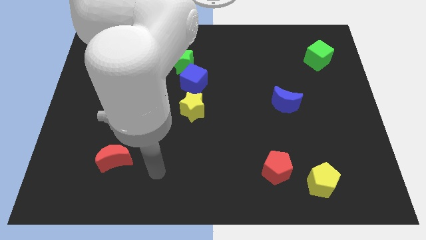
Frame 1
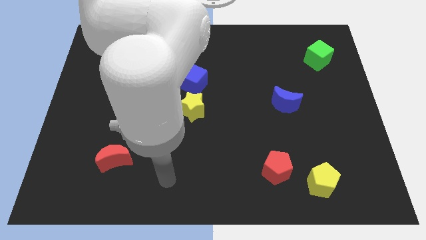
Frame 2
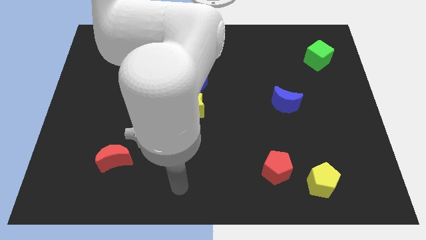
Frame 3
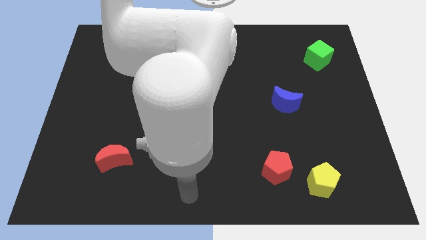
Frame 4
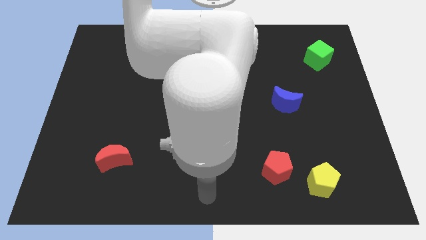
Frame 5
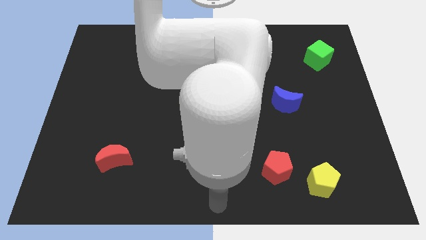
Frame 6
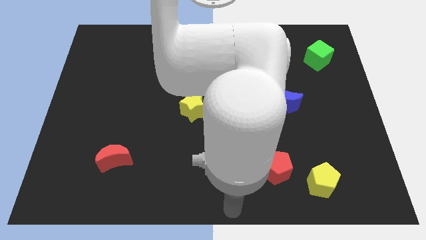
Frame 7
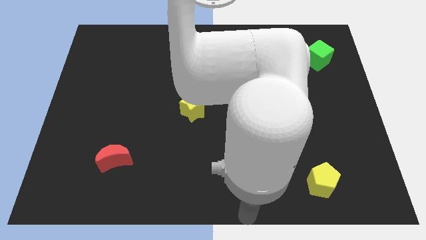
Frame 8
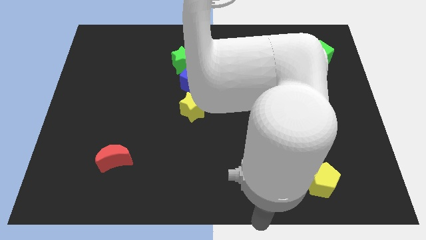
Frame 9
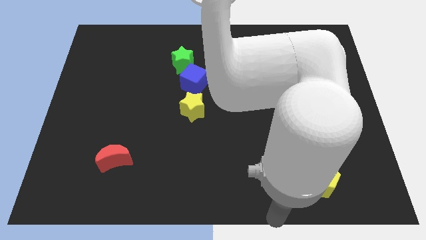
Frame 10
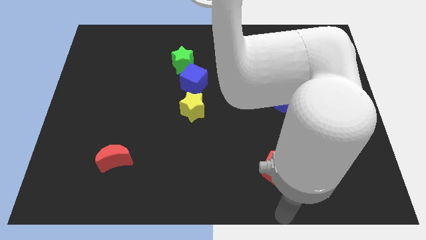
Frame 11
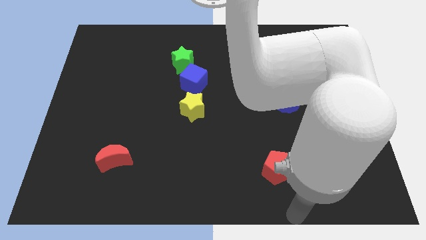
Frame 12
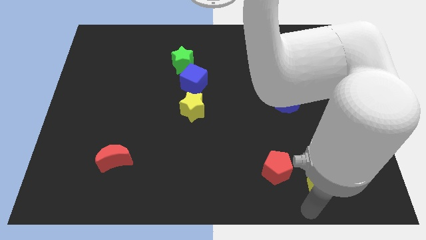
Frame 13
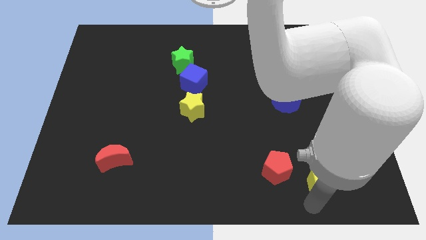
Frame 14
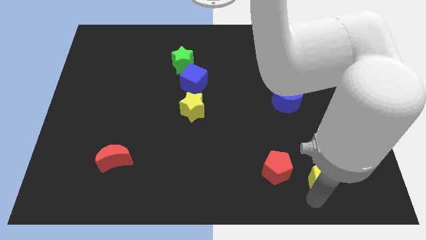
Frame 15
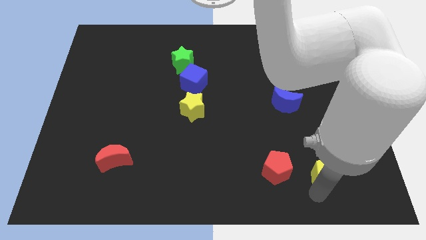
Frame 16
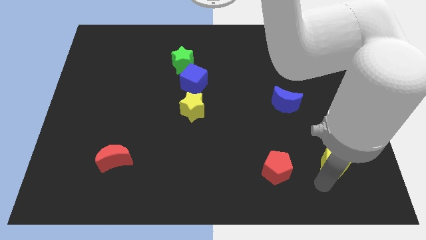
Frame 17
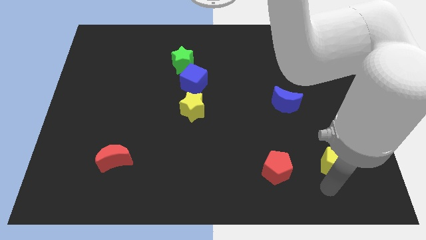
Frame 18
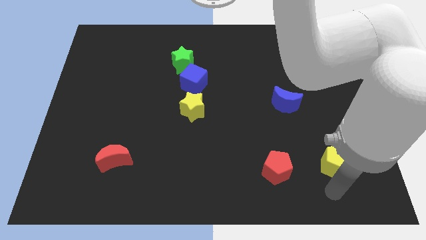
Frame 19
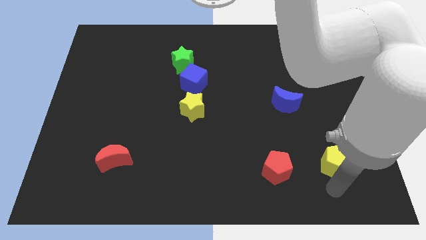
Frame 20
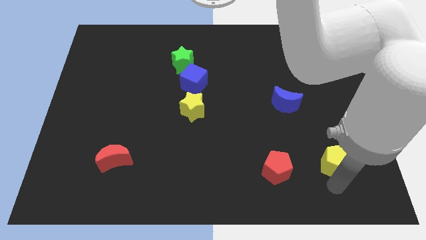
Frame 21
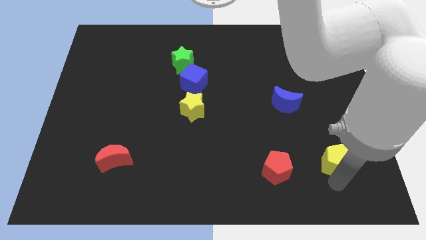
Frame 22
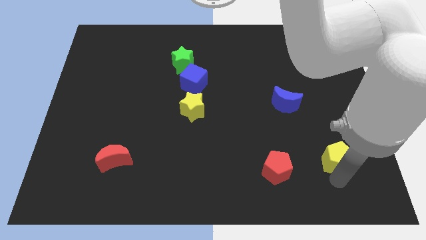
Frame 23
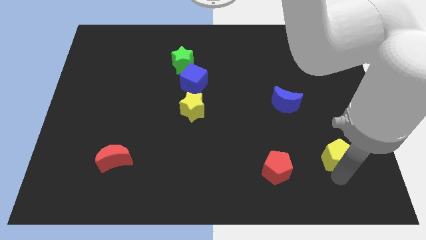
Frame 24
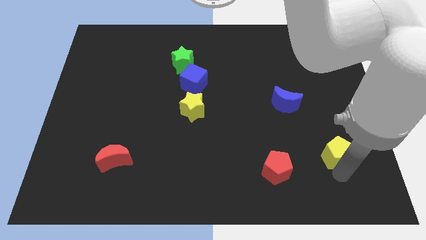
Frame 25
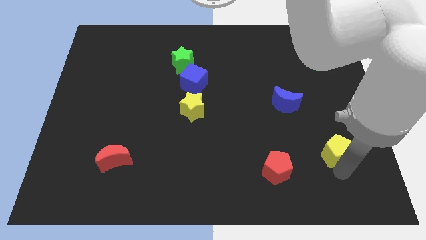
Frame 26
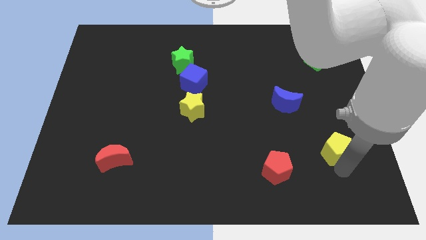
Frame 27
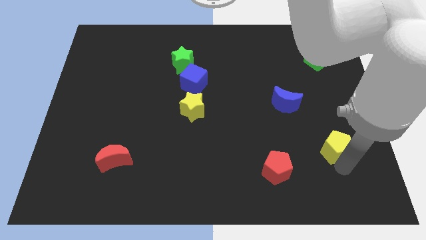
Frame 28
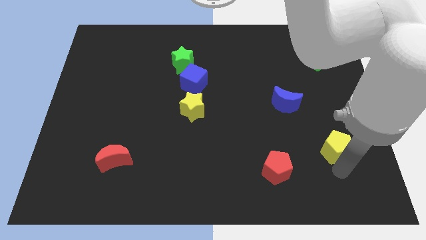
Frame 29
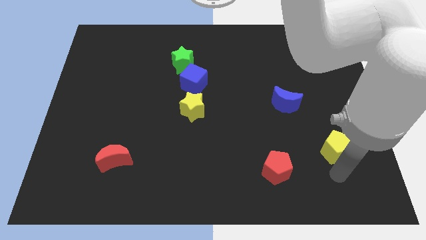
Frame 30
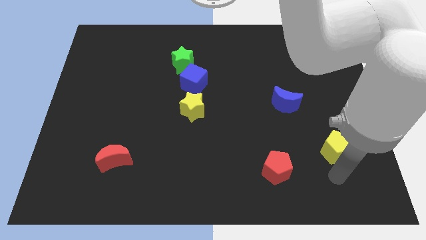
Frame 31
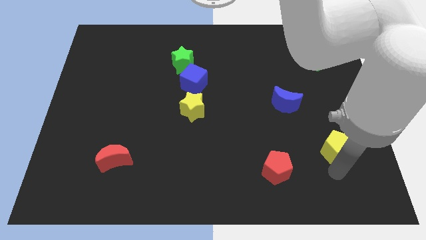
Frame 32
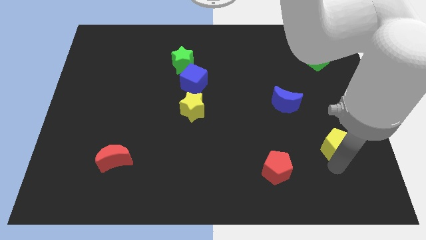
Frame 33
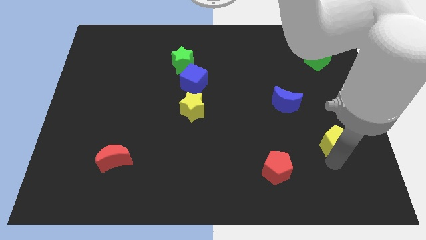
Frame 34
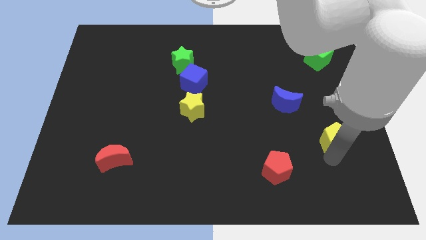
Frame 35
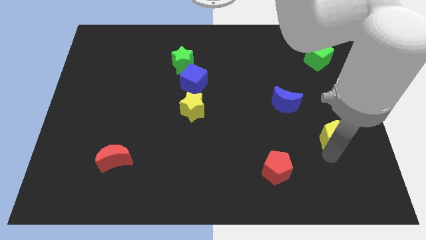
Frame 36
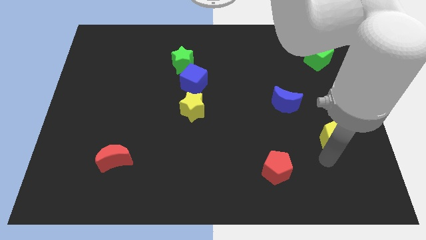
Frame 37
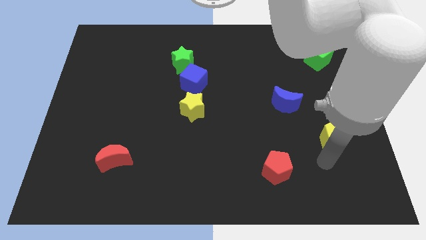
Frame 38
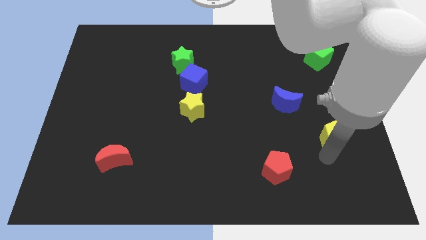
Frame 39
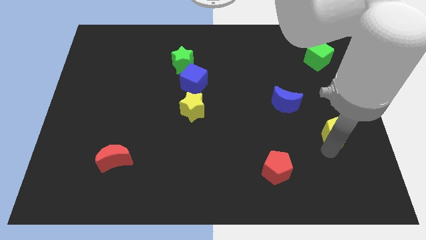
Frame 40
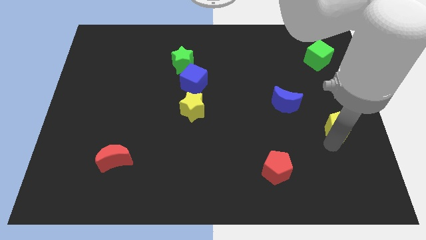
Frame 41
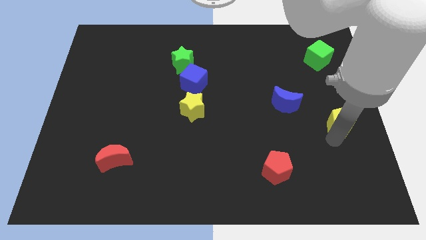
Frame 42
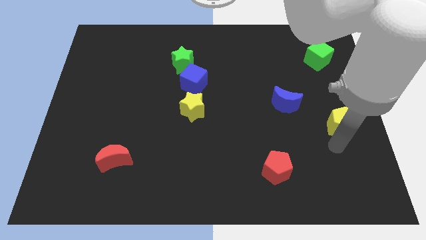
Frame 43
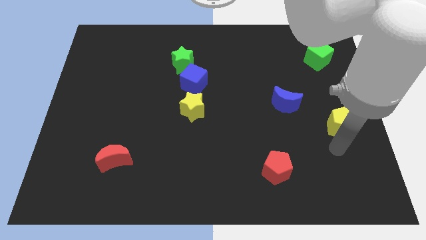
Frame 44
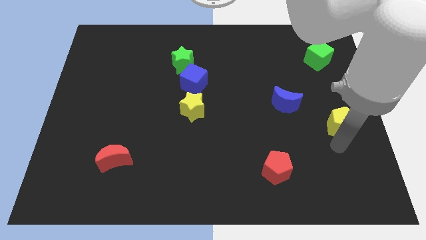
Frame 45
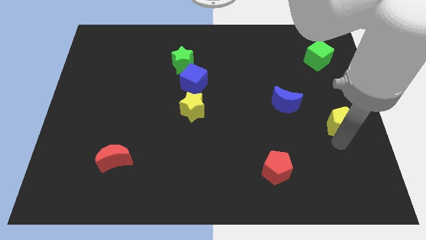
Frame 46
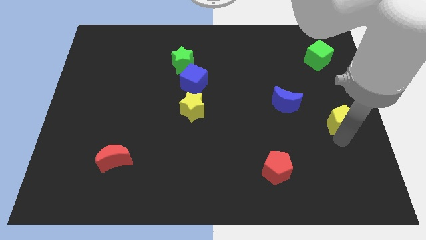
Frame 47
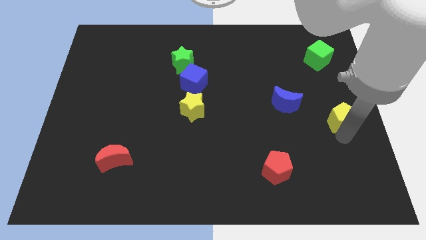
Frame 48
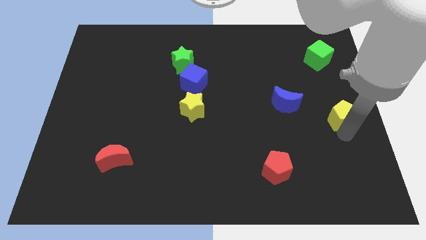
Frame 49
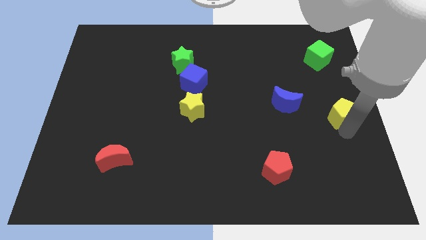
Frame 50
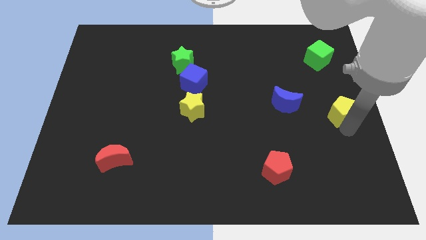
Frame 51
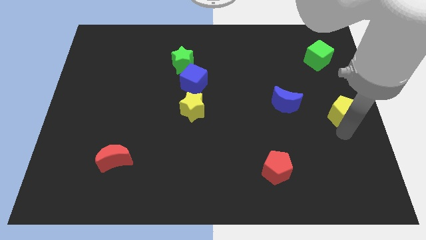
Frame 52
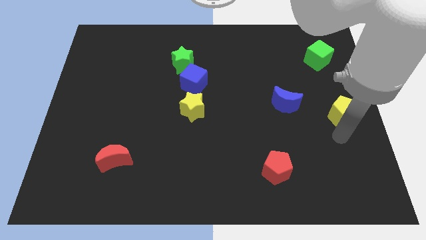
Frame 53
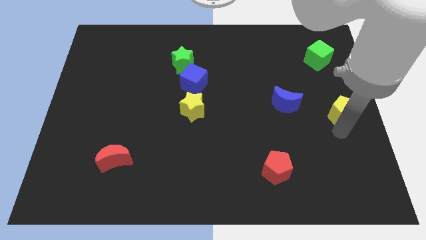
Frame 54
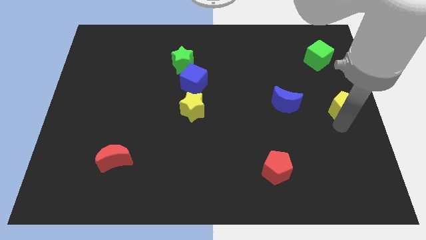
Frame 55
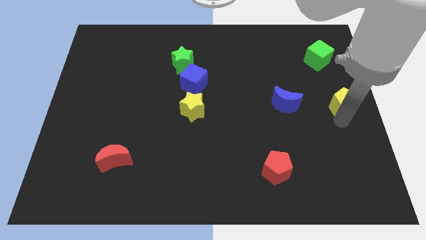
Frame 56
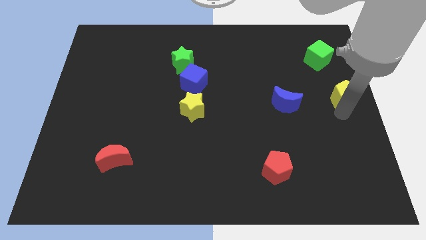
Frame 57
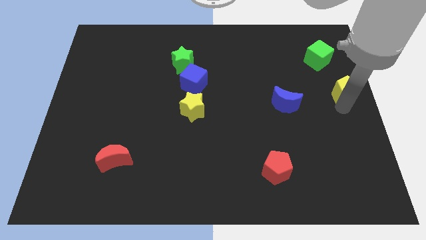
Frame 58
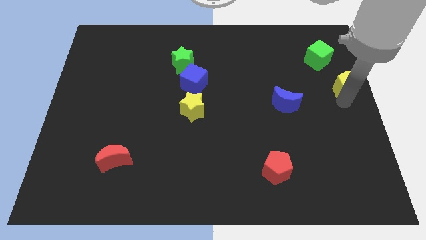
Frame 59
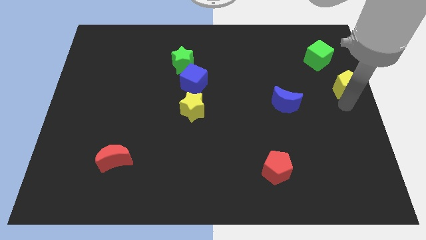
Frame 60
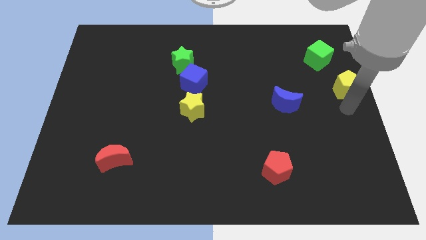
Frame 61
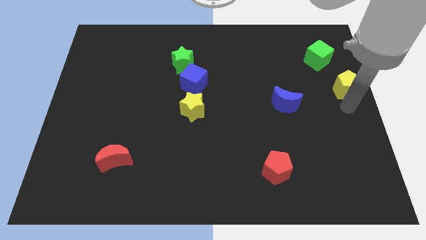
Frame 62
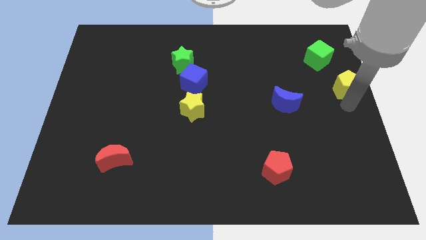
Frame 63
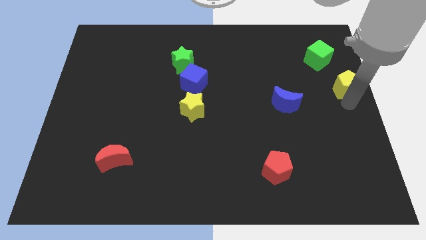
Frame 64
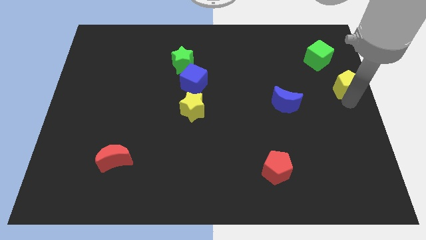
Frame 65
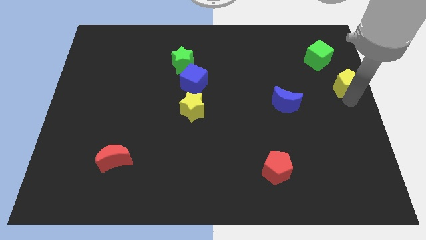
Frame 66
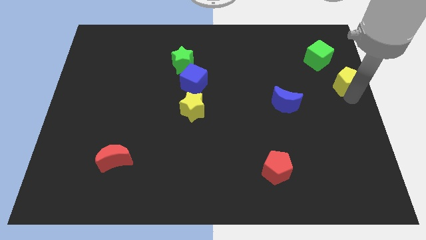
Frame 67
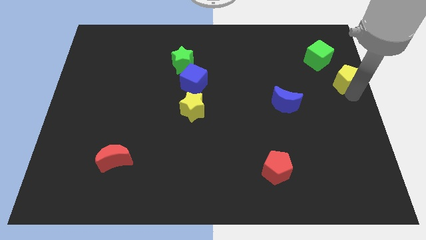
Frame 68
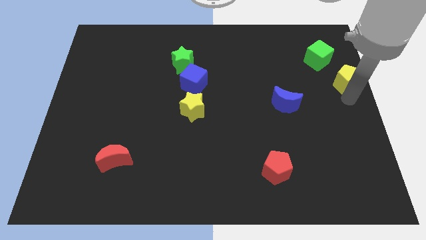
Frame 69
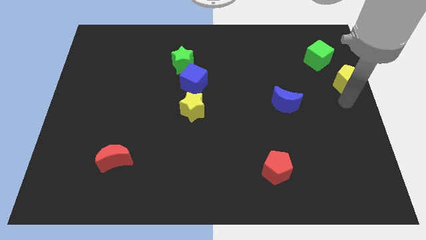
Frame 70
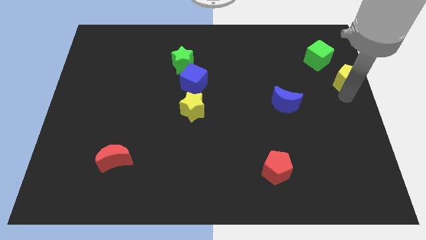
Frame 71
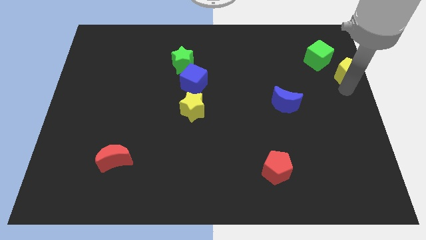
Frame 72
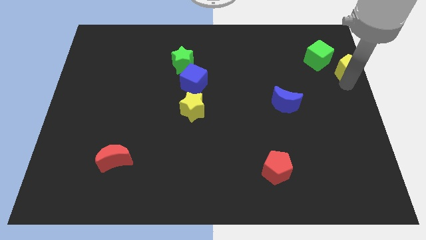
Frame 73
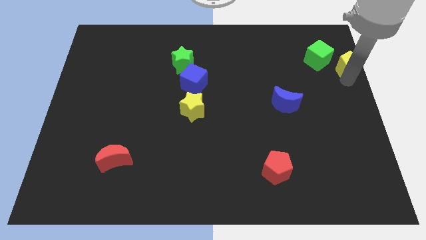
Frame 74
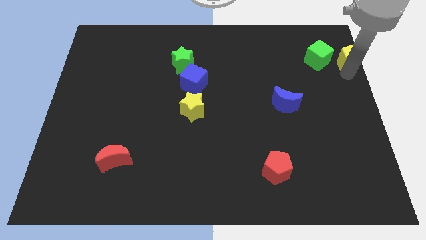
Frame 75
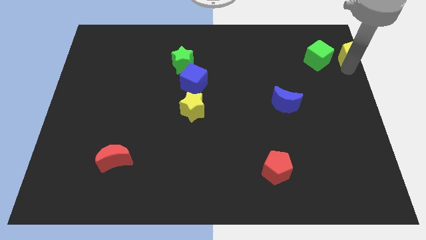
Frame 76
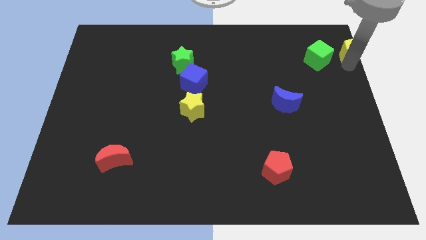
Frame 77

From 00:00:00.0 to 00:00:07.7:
move the yellow pentagon to the upper right corner
